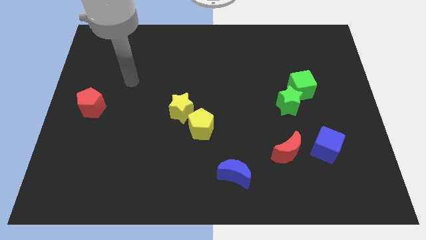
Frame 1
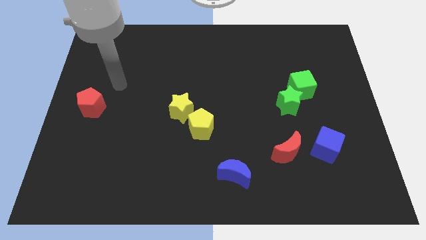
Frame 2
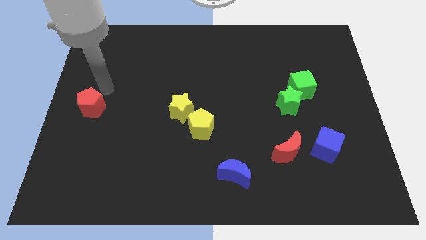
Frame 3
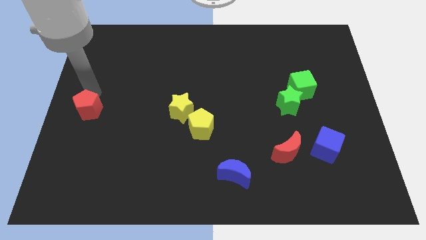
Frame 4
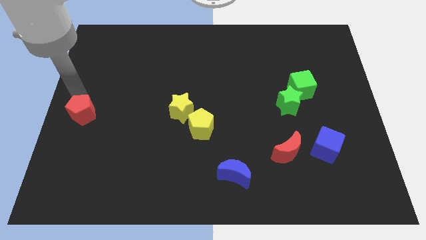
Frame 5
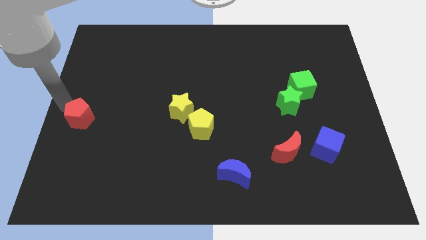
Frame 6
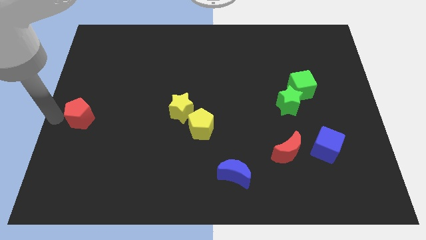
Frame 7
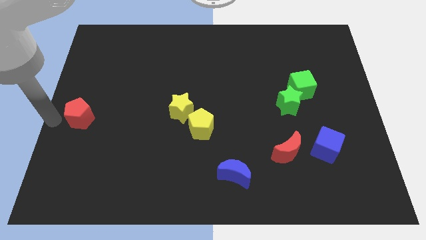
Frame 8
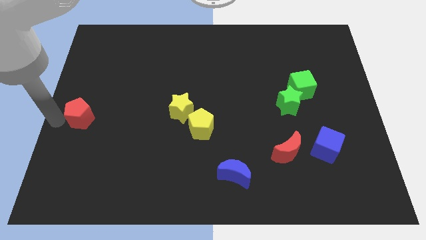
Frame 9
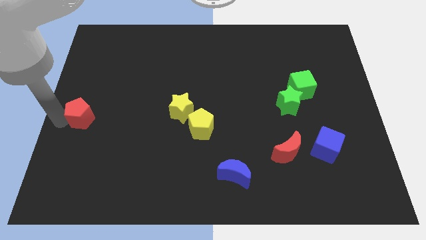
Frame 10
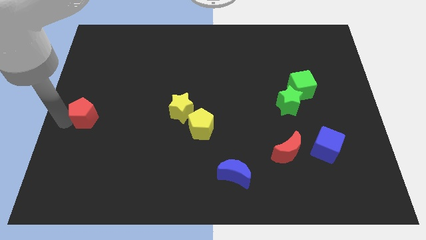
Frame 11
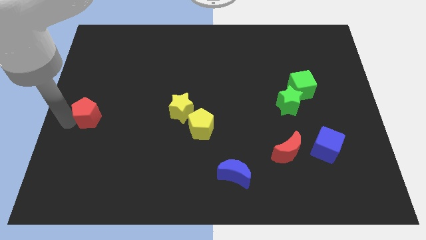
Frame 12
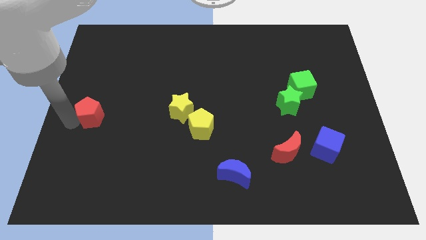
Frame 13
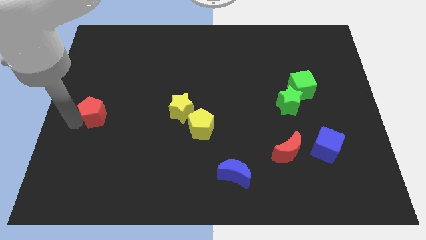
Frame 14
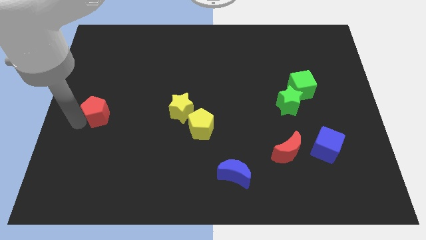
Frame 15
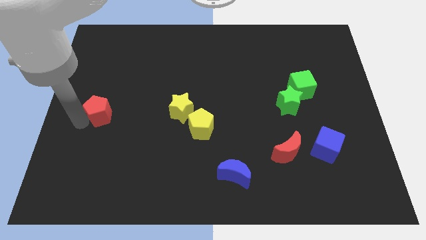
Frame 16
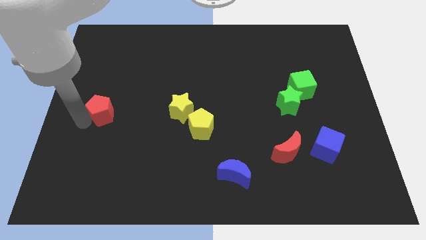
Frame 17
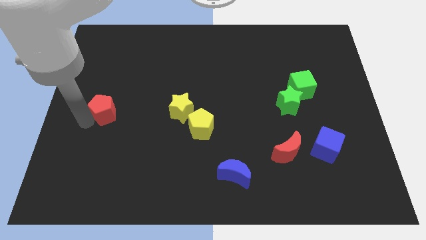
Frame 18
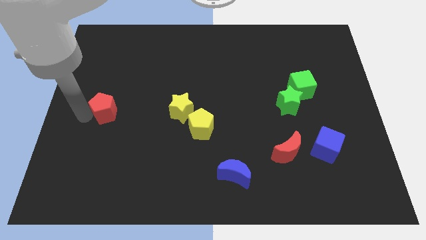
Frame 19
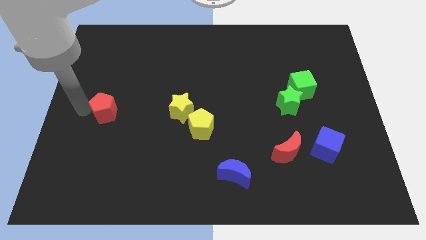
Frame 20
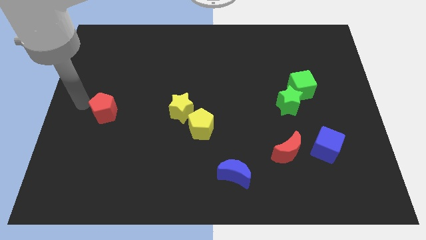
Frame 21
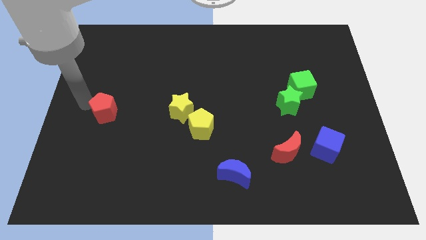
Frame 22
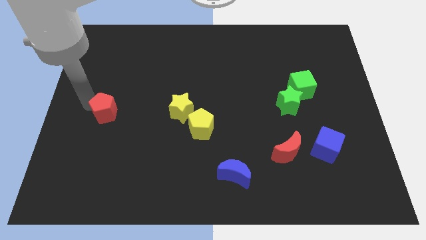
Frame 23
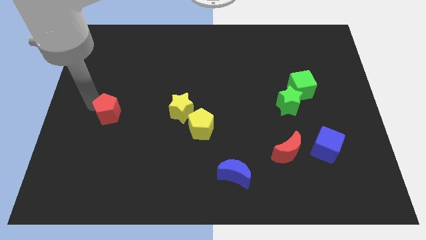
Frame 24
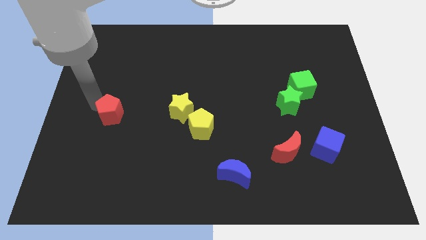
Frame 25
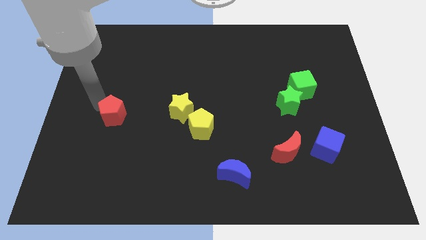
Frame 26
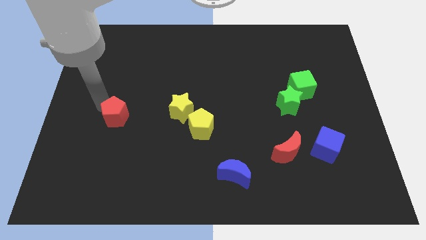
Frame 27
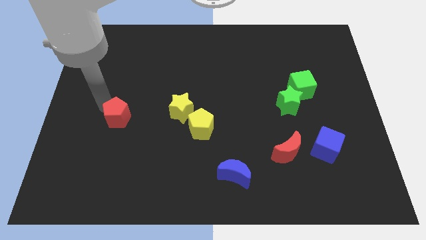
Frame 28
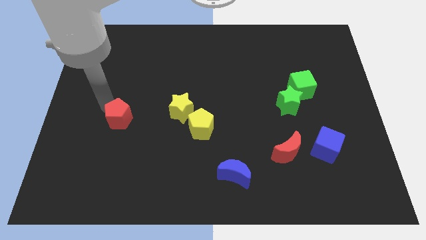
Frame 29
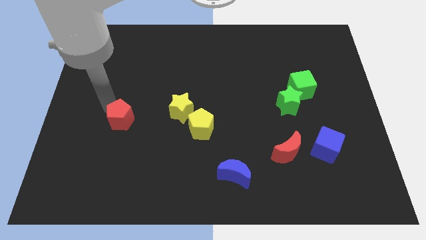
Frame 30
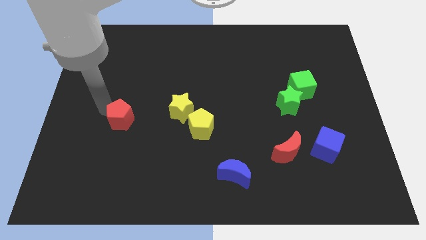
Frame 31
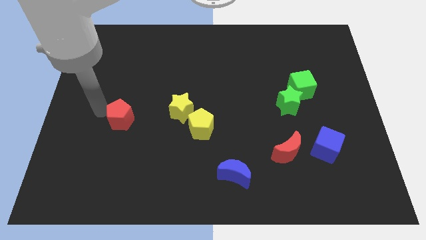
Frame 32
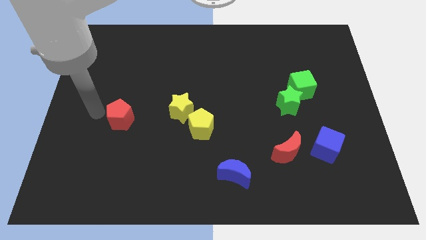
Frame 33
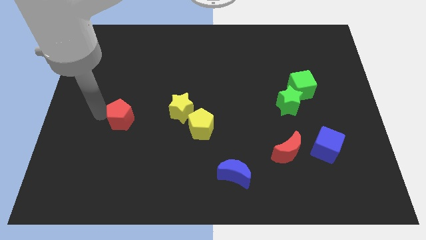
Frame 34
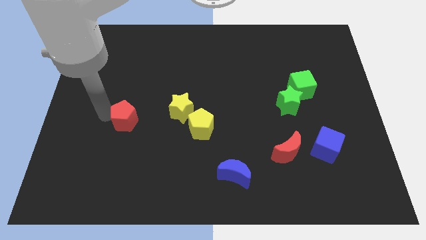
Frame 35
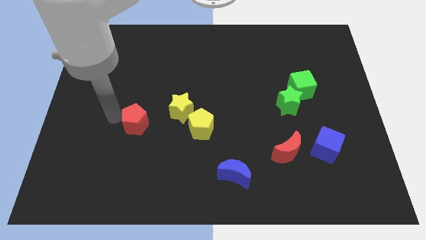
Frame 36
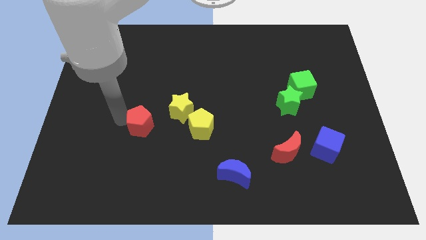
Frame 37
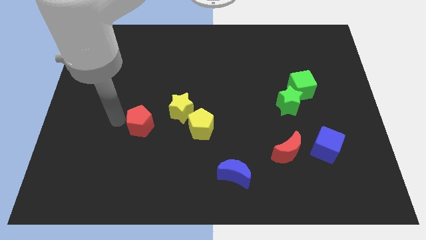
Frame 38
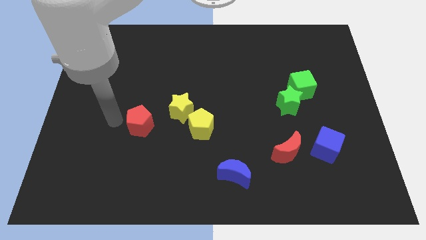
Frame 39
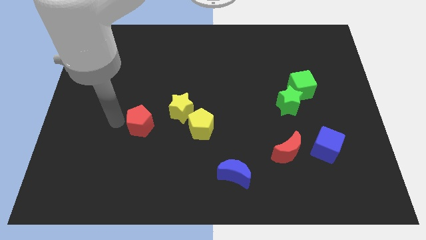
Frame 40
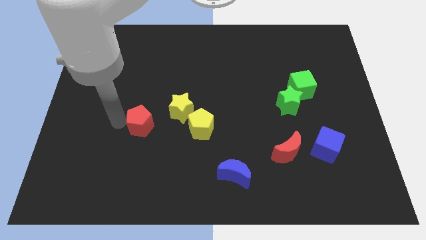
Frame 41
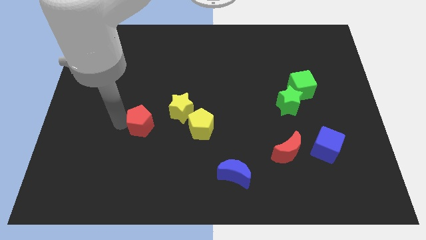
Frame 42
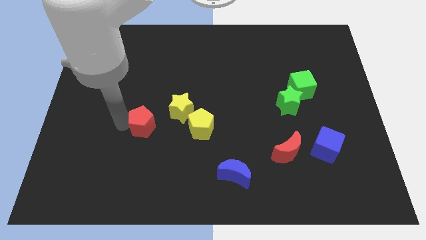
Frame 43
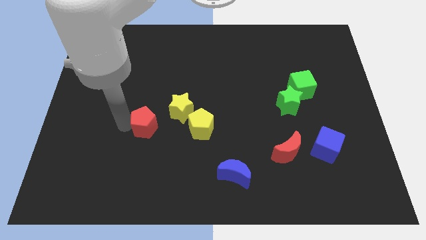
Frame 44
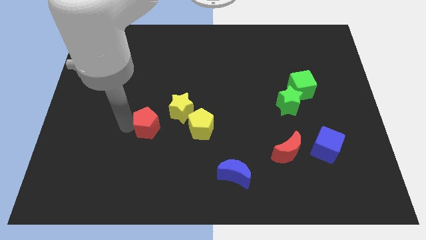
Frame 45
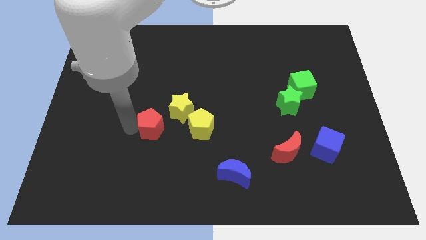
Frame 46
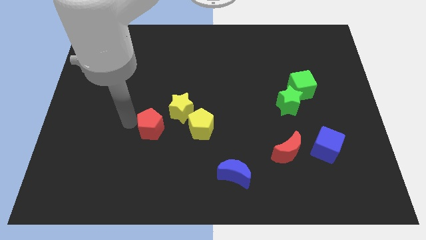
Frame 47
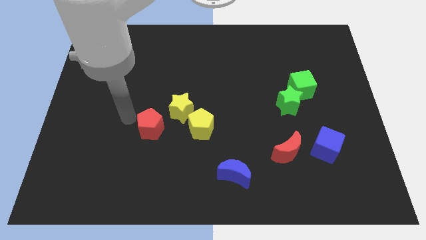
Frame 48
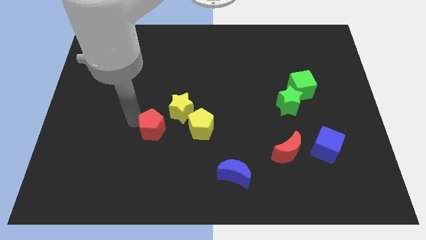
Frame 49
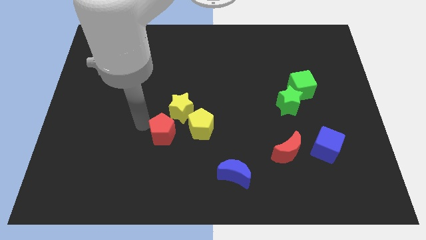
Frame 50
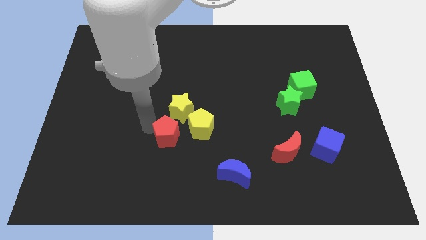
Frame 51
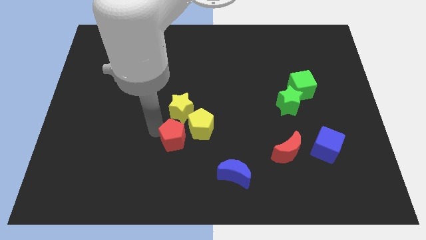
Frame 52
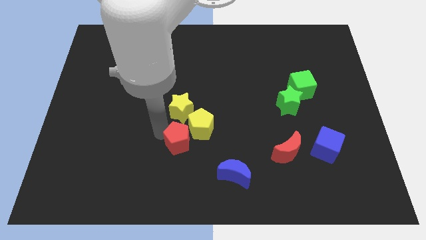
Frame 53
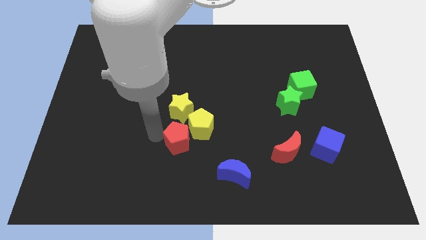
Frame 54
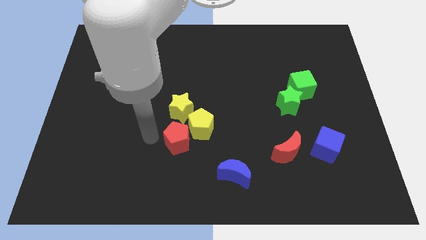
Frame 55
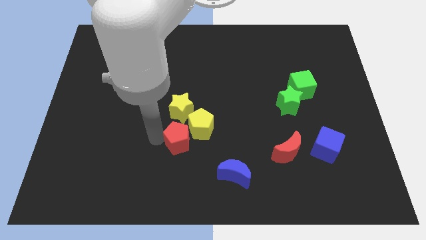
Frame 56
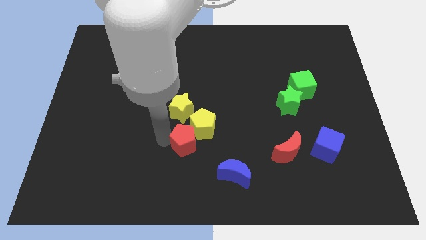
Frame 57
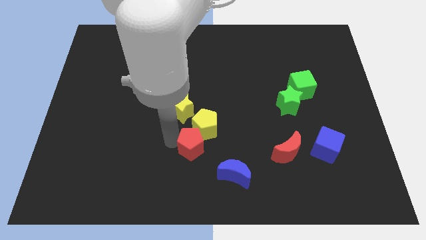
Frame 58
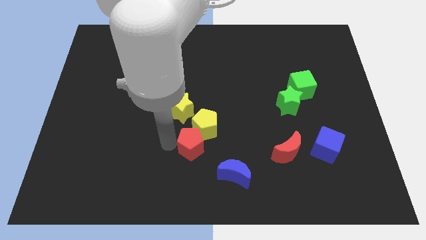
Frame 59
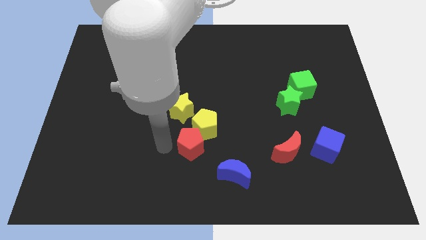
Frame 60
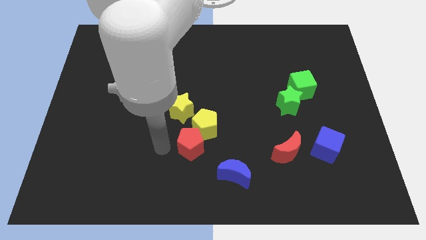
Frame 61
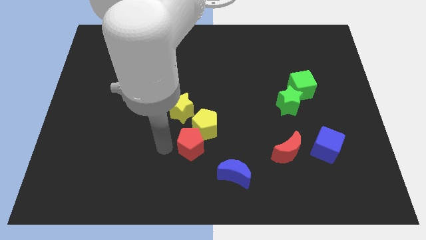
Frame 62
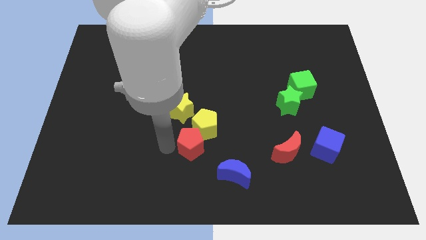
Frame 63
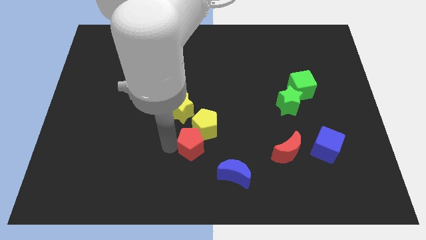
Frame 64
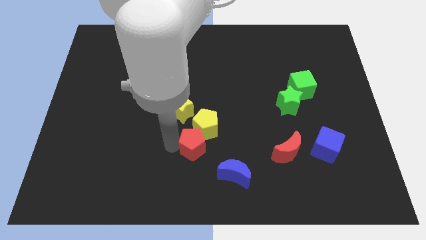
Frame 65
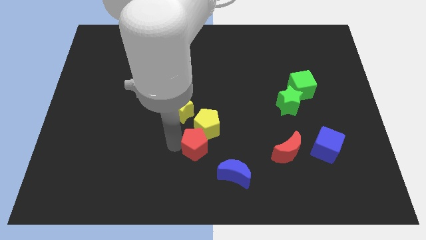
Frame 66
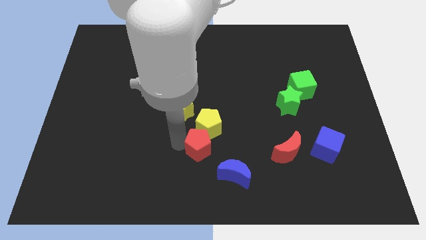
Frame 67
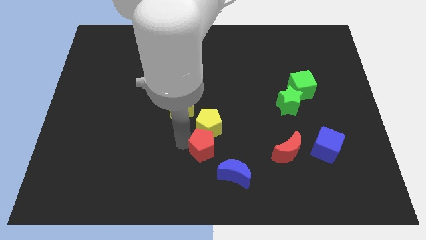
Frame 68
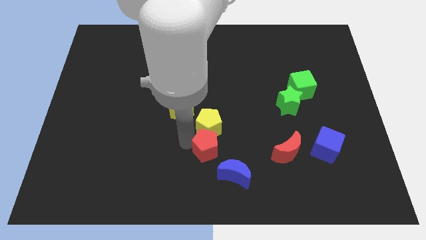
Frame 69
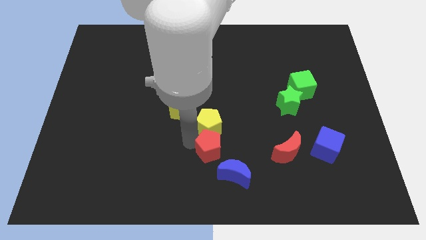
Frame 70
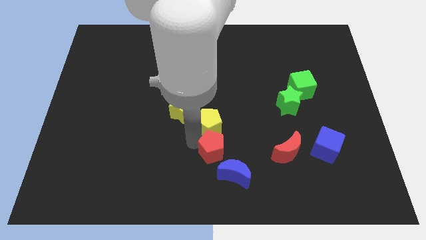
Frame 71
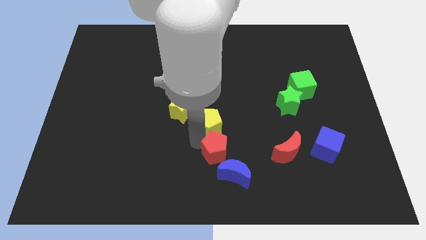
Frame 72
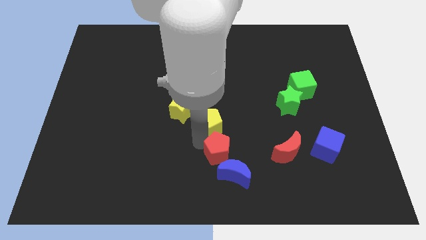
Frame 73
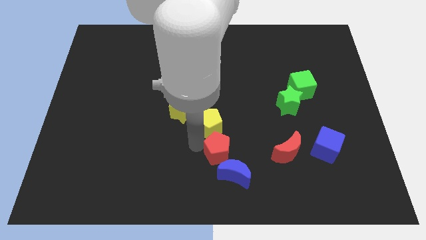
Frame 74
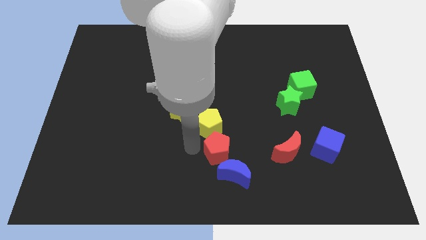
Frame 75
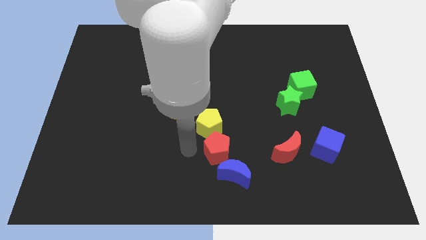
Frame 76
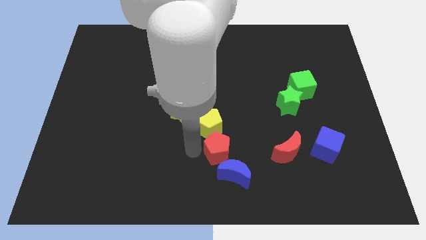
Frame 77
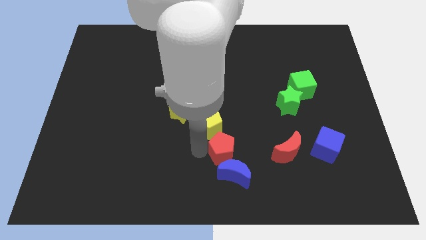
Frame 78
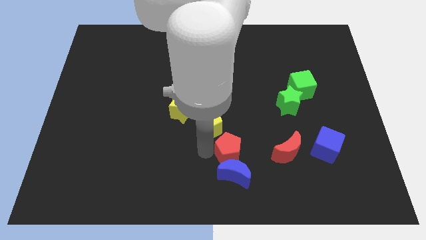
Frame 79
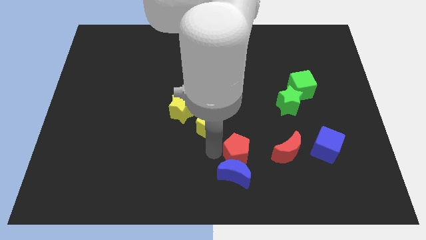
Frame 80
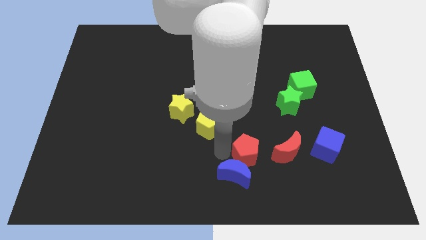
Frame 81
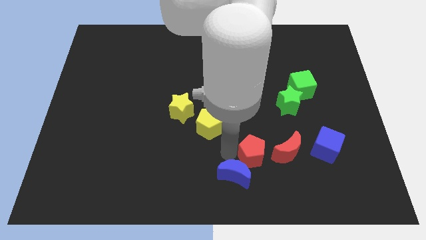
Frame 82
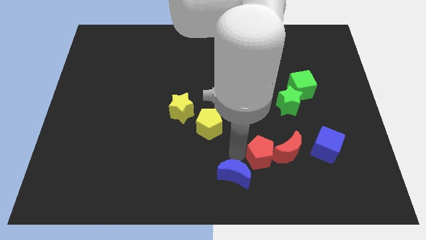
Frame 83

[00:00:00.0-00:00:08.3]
move the red pentagon next to the red moon
